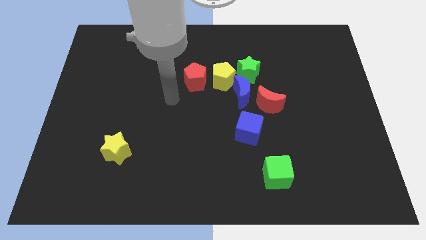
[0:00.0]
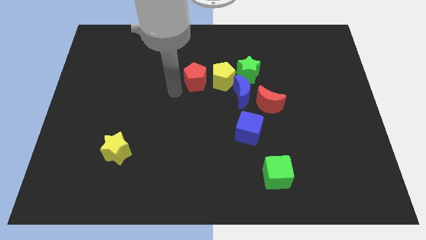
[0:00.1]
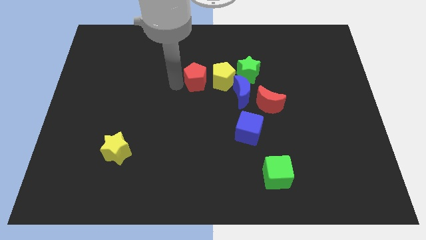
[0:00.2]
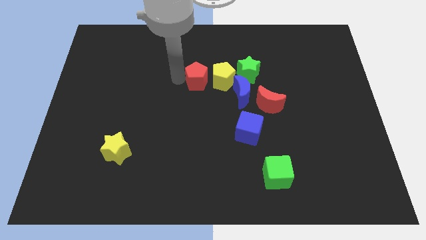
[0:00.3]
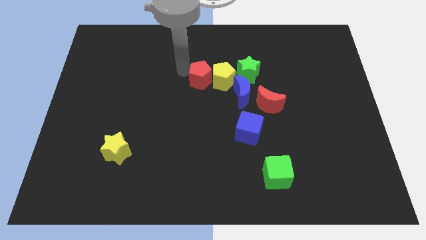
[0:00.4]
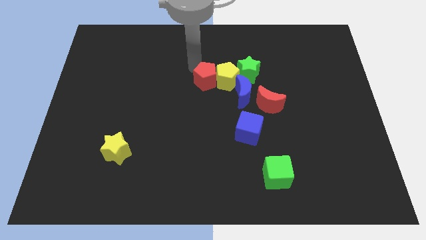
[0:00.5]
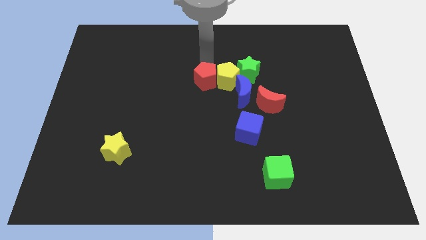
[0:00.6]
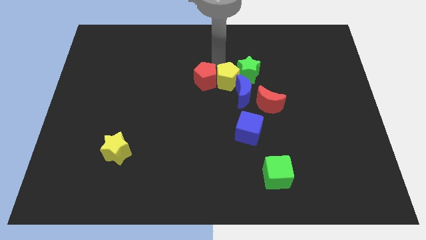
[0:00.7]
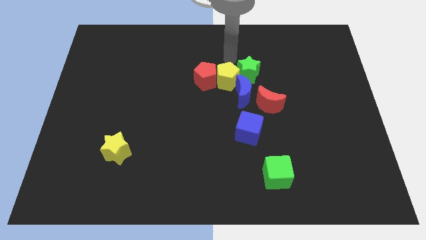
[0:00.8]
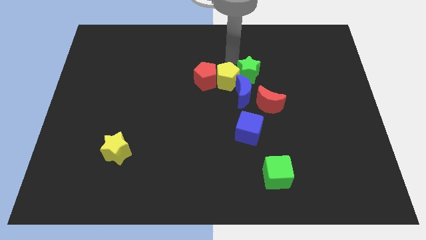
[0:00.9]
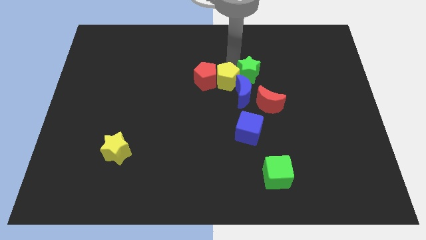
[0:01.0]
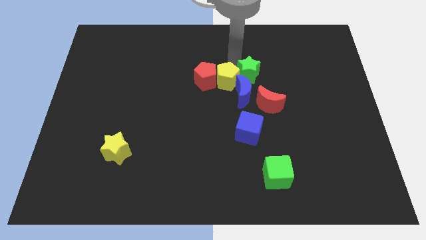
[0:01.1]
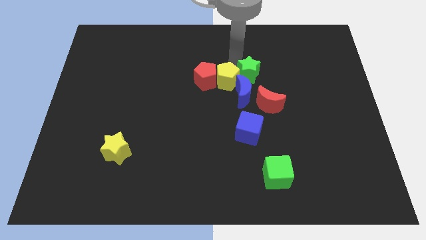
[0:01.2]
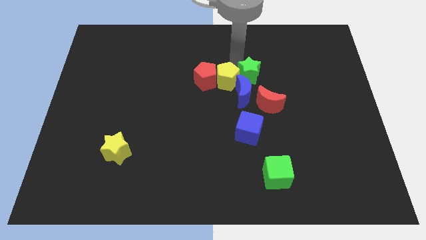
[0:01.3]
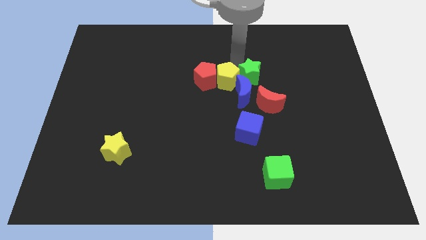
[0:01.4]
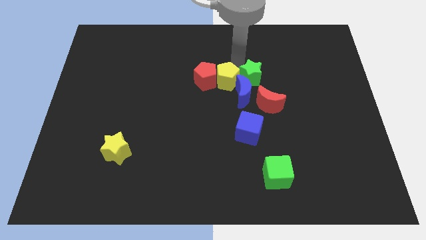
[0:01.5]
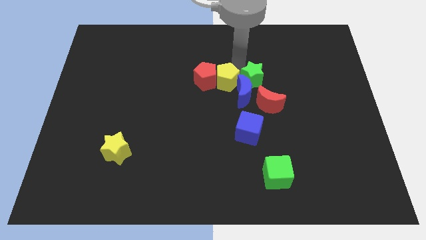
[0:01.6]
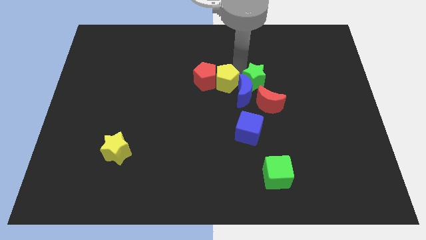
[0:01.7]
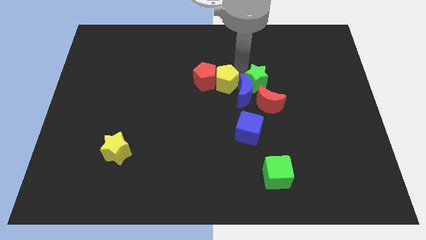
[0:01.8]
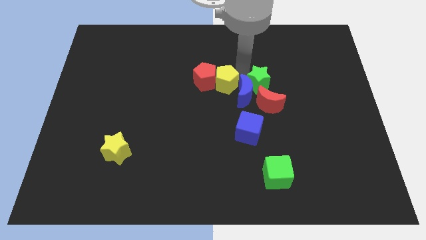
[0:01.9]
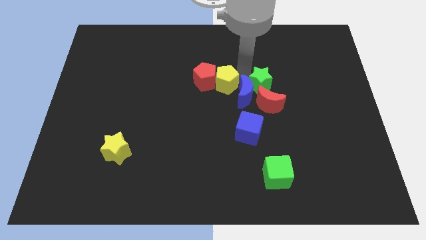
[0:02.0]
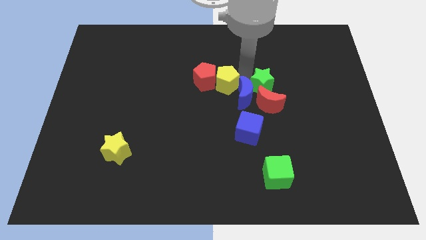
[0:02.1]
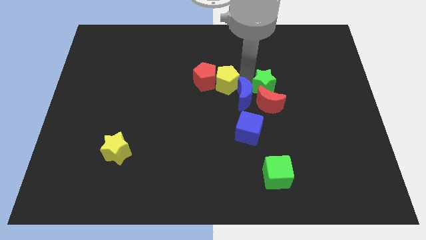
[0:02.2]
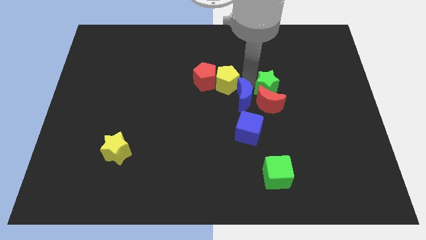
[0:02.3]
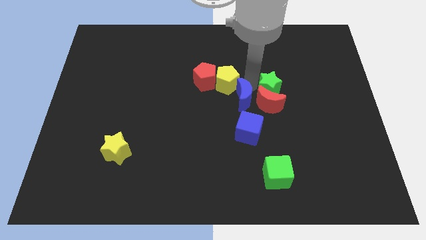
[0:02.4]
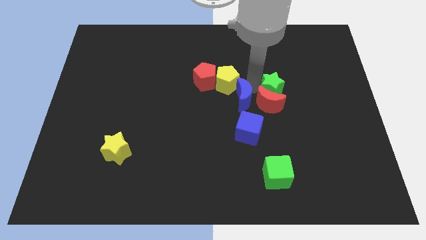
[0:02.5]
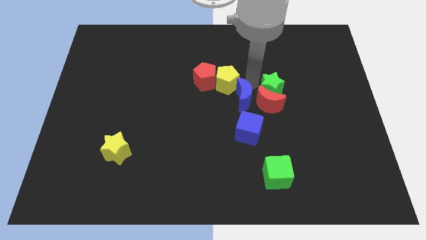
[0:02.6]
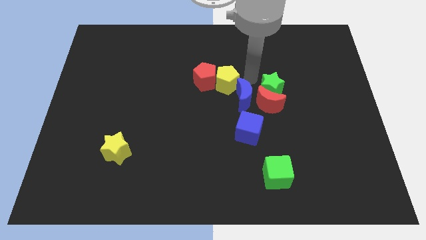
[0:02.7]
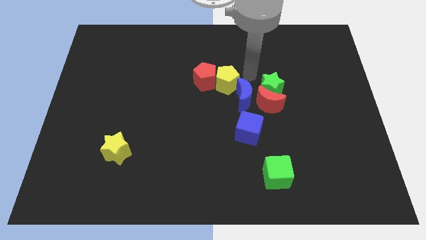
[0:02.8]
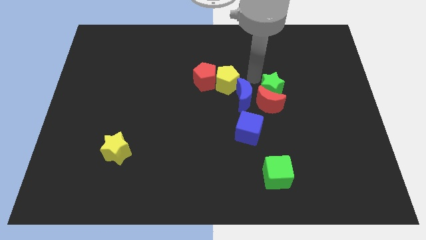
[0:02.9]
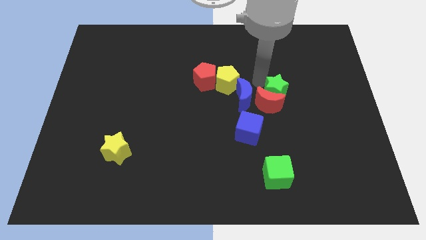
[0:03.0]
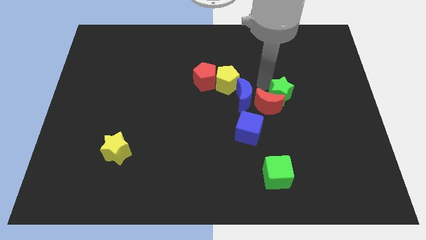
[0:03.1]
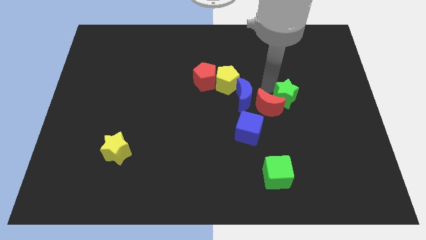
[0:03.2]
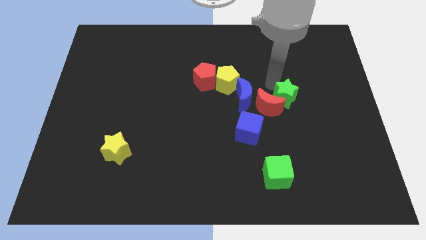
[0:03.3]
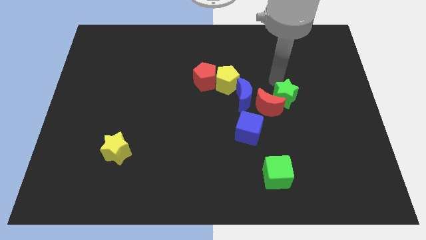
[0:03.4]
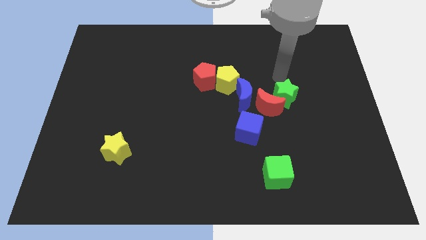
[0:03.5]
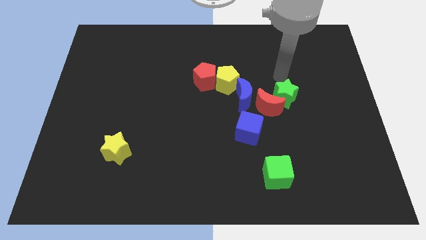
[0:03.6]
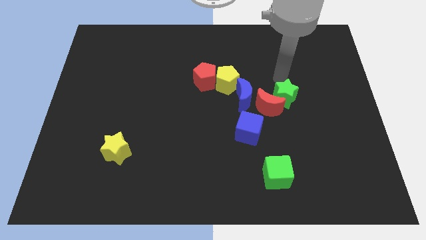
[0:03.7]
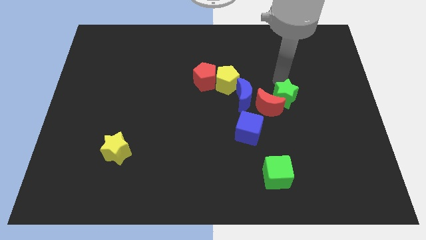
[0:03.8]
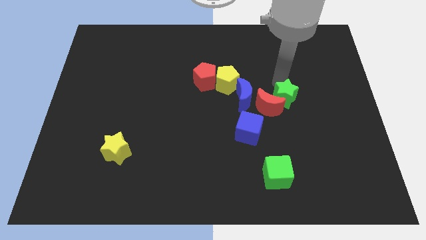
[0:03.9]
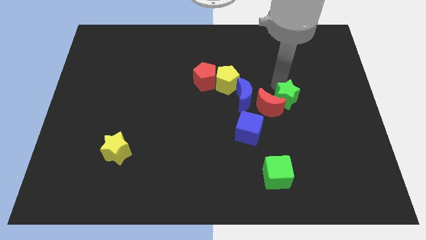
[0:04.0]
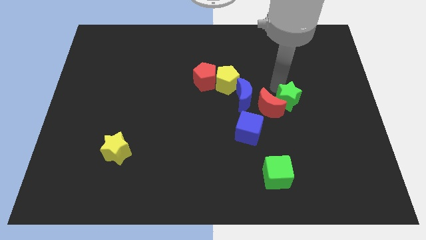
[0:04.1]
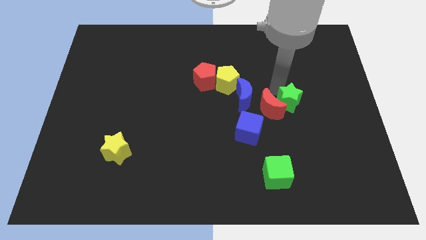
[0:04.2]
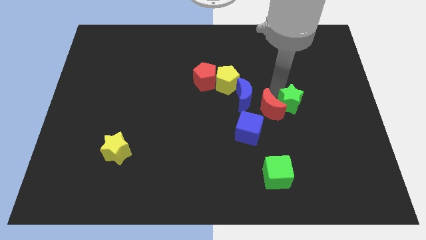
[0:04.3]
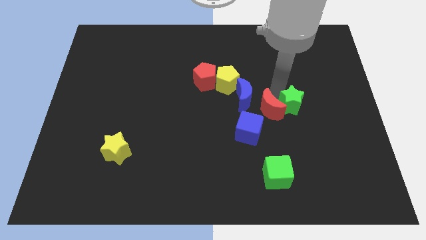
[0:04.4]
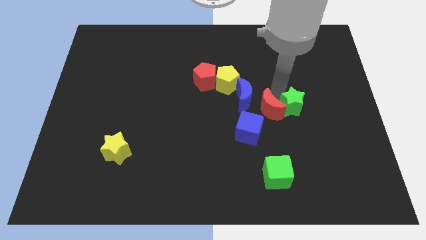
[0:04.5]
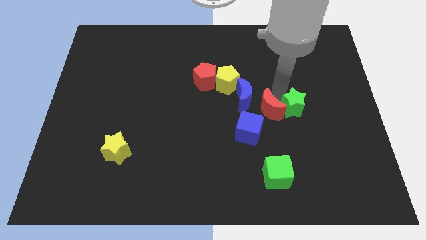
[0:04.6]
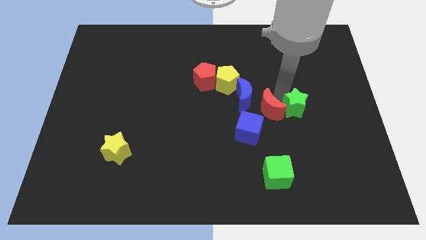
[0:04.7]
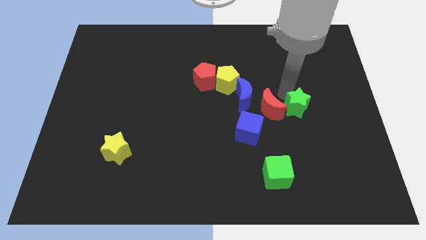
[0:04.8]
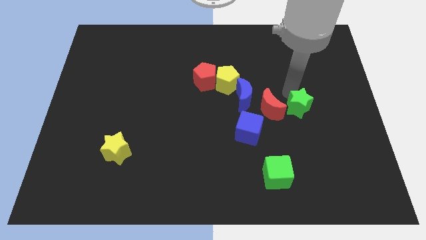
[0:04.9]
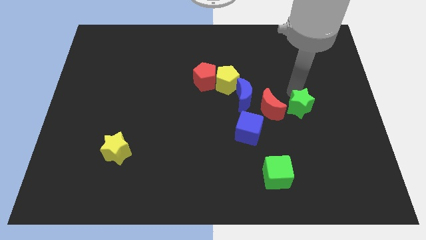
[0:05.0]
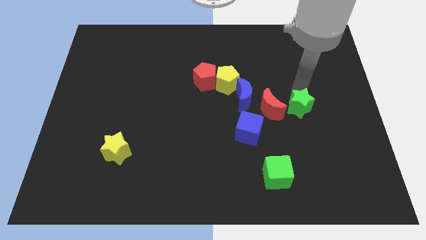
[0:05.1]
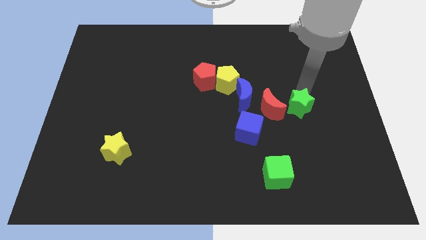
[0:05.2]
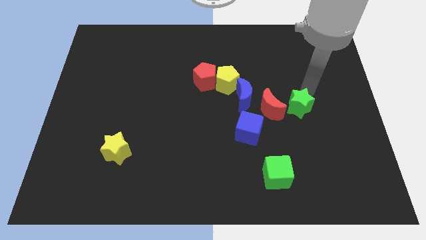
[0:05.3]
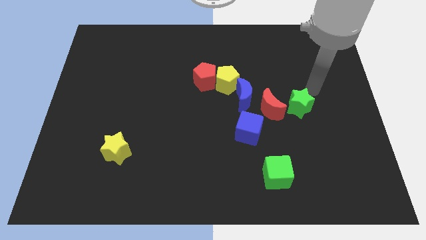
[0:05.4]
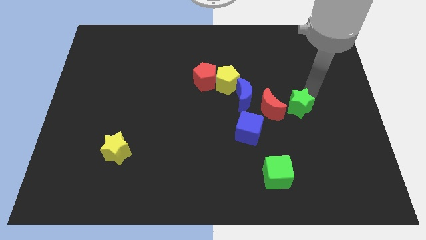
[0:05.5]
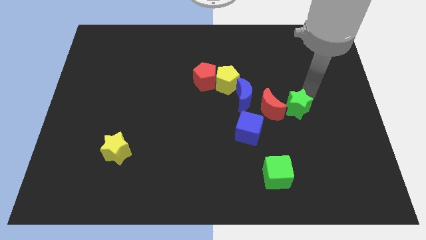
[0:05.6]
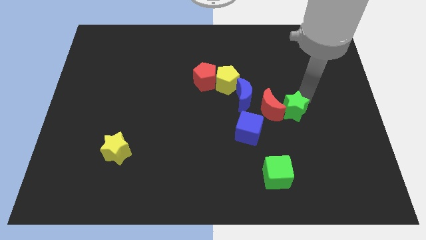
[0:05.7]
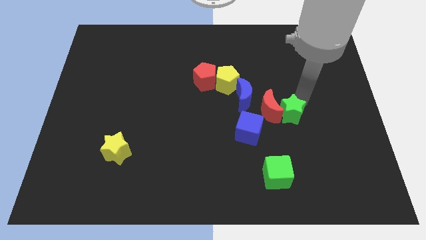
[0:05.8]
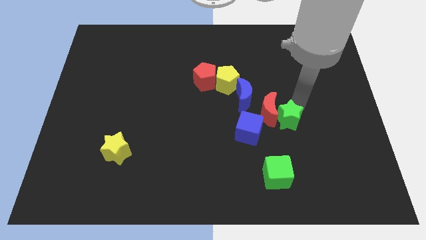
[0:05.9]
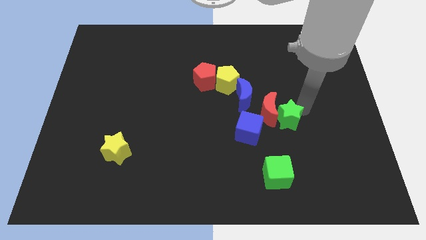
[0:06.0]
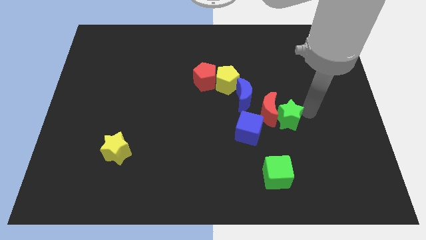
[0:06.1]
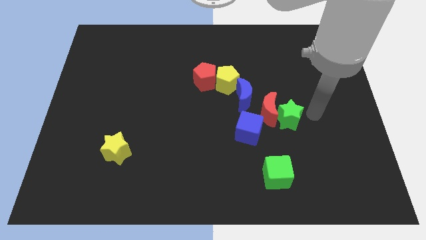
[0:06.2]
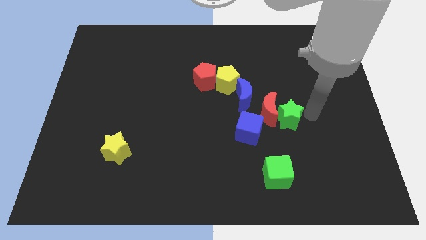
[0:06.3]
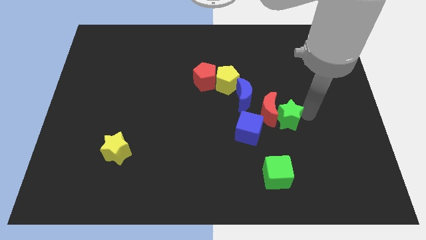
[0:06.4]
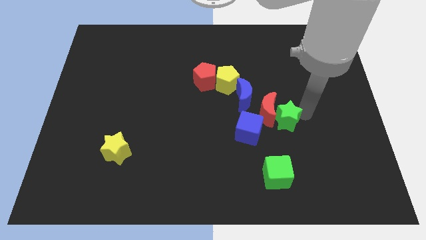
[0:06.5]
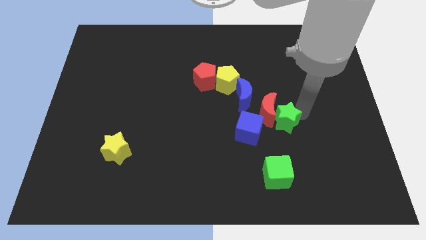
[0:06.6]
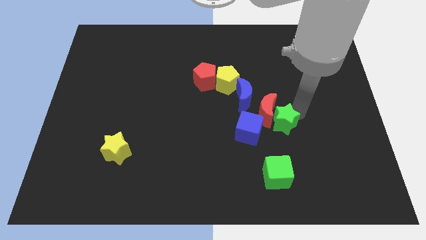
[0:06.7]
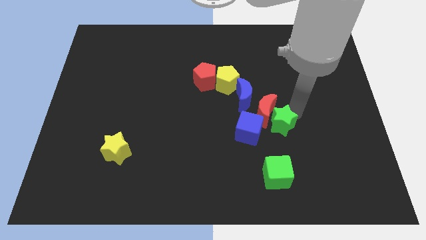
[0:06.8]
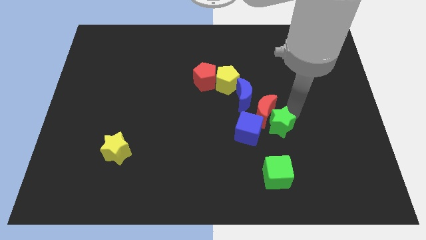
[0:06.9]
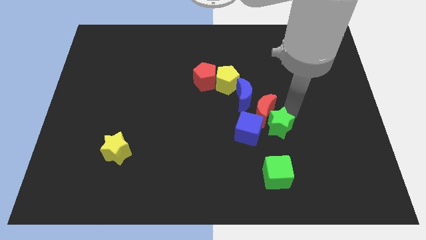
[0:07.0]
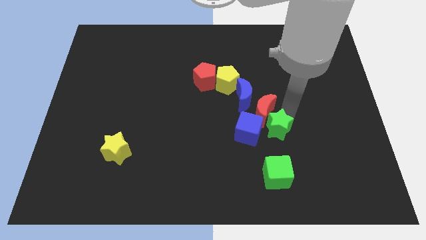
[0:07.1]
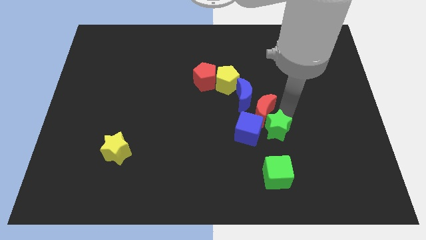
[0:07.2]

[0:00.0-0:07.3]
slide the green star next to the blue cube
